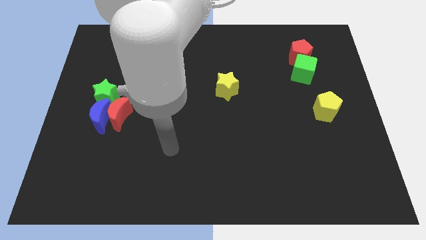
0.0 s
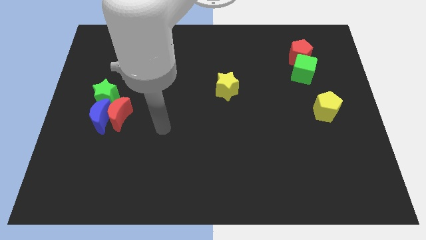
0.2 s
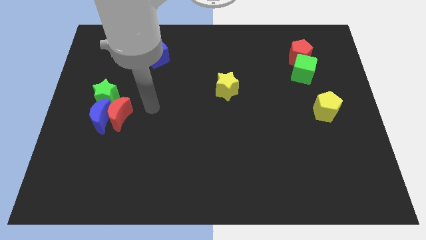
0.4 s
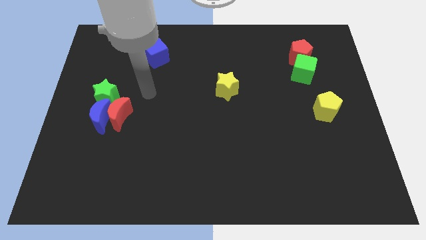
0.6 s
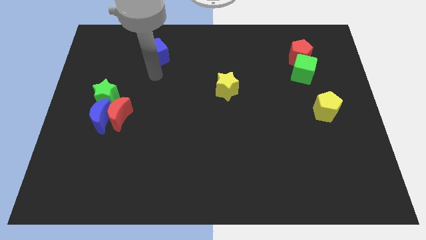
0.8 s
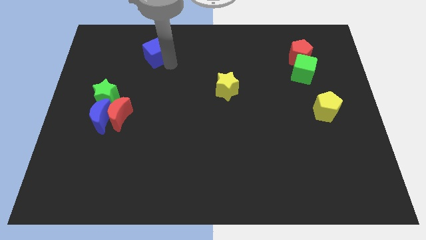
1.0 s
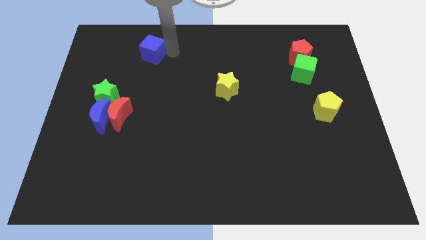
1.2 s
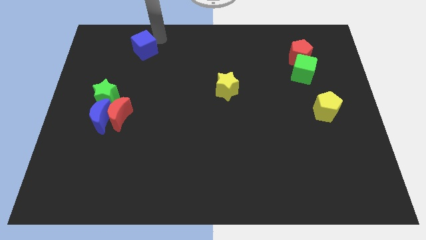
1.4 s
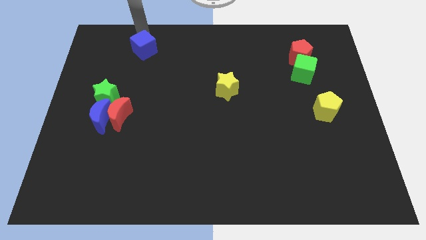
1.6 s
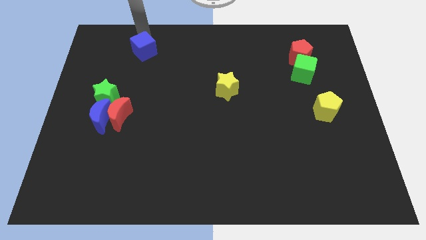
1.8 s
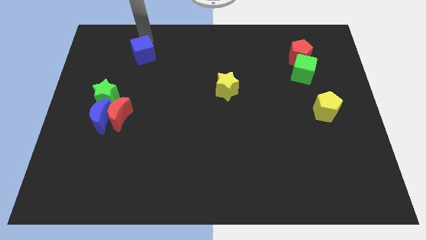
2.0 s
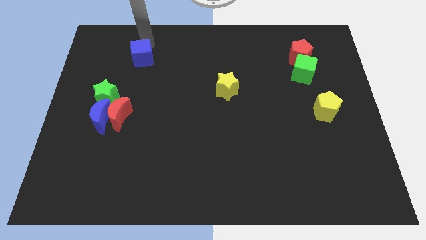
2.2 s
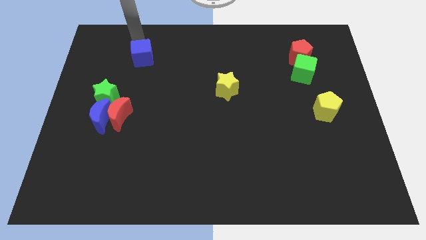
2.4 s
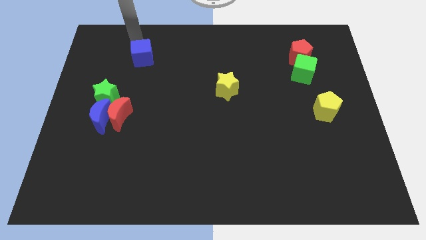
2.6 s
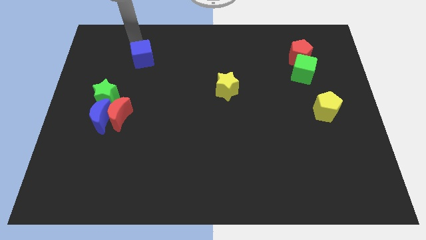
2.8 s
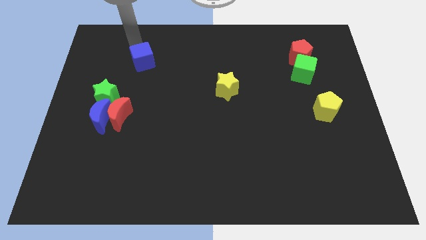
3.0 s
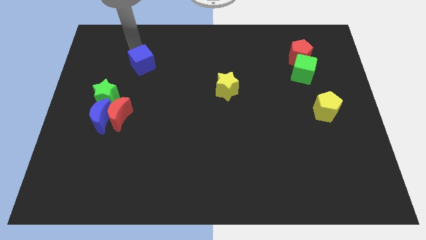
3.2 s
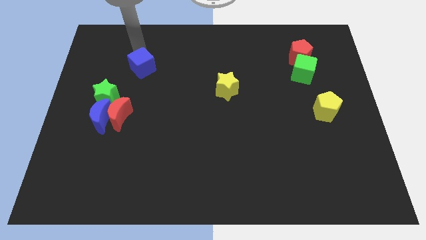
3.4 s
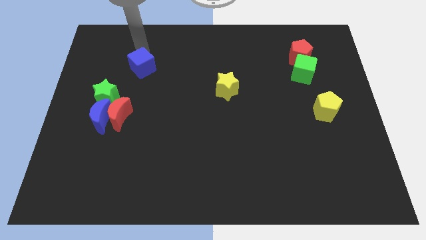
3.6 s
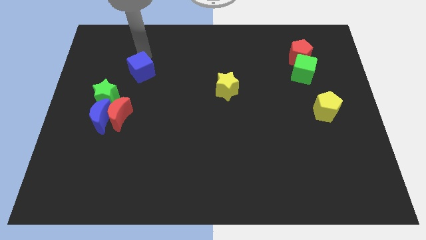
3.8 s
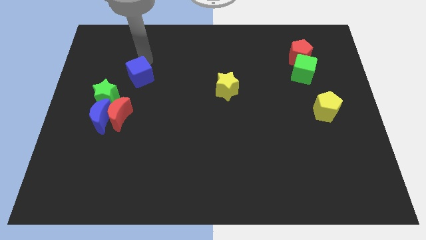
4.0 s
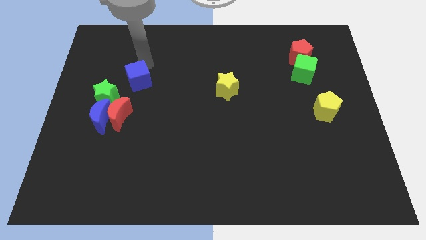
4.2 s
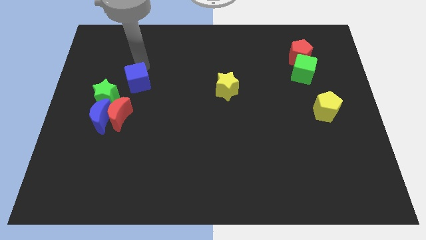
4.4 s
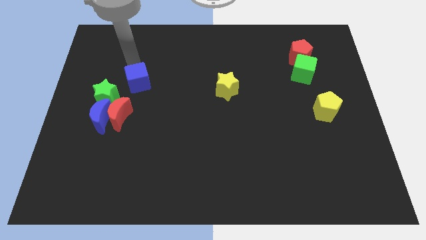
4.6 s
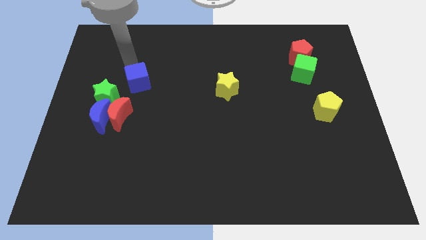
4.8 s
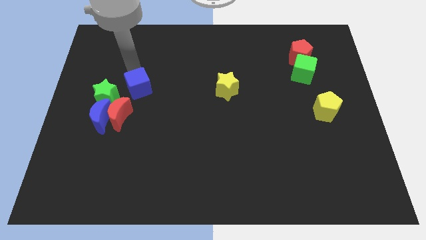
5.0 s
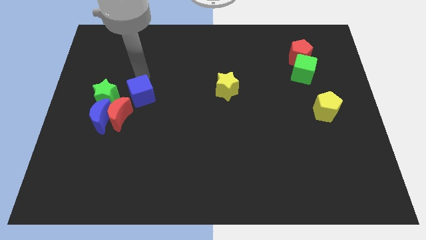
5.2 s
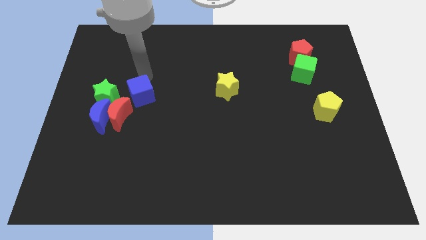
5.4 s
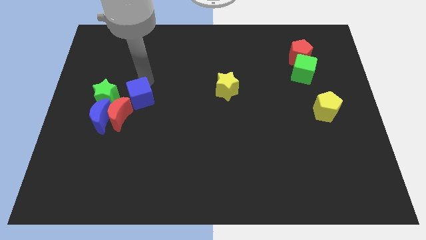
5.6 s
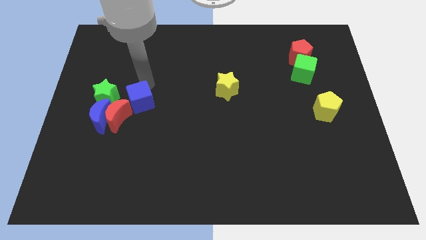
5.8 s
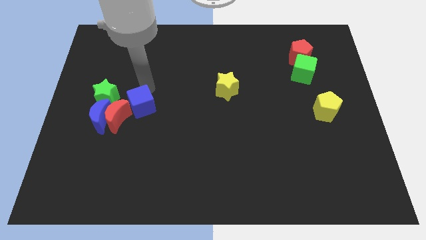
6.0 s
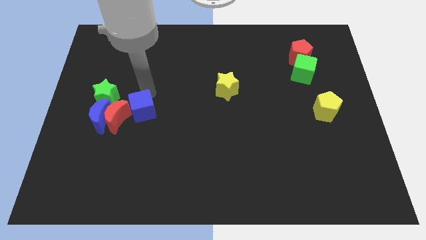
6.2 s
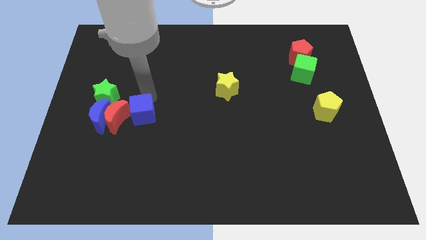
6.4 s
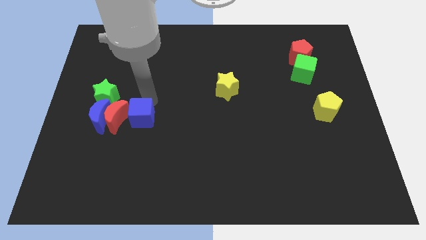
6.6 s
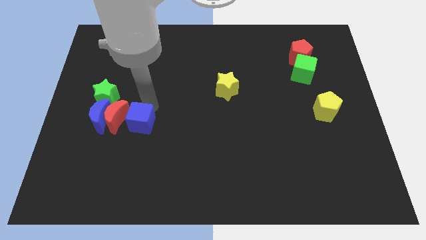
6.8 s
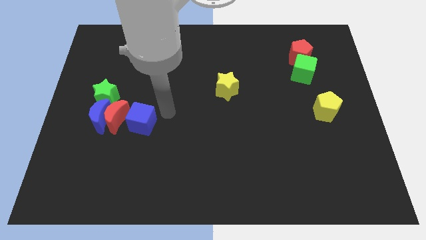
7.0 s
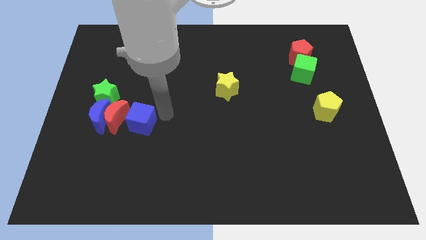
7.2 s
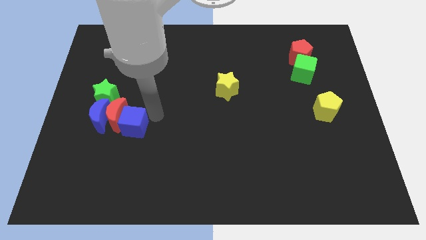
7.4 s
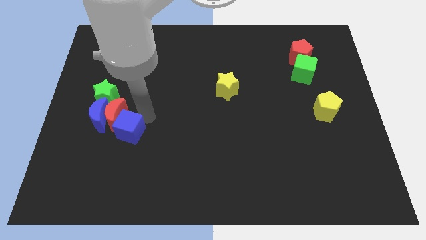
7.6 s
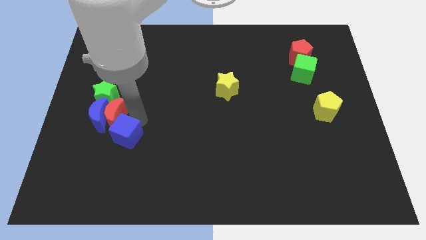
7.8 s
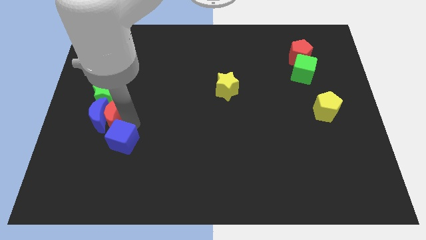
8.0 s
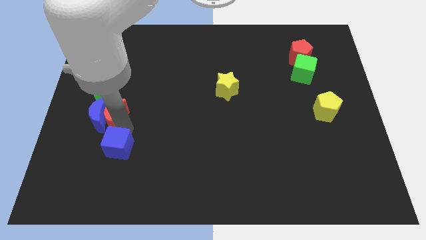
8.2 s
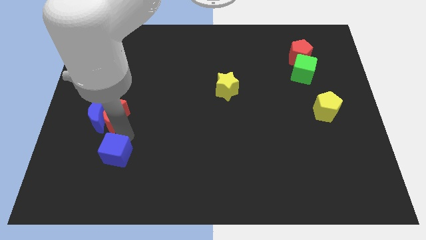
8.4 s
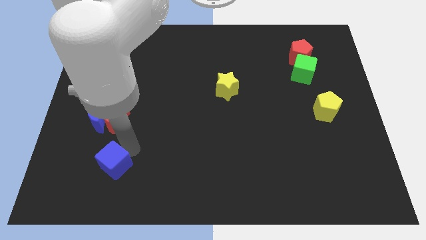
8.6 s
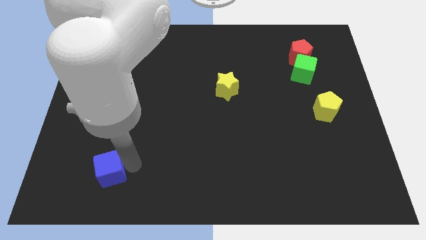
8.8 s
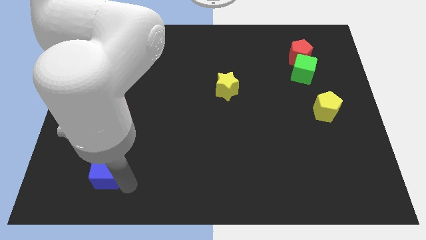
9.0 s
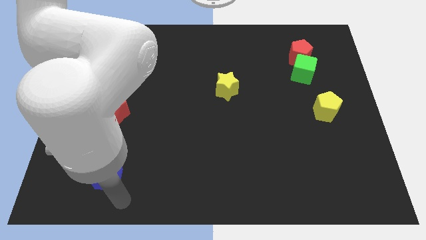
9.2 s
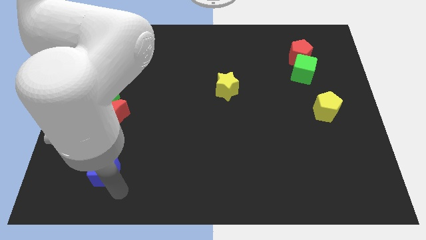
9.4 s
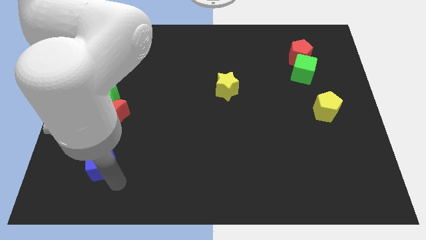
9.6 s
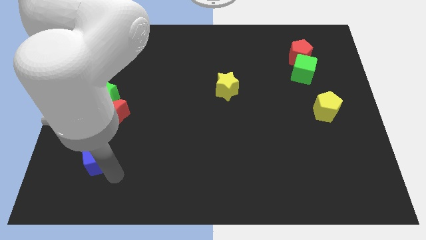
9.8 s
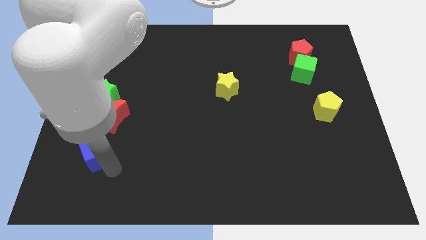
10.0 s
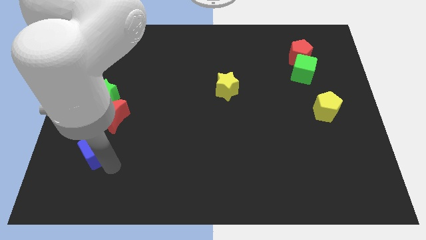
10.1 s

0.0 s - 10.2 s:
slide the blue cube to the bottom left of the red moon

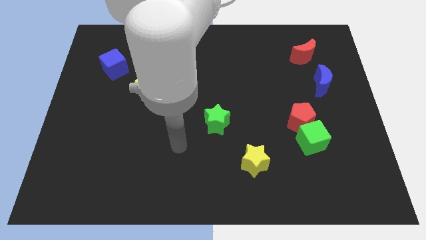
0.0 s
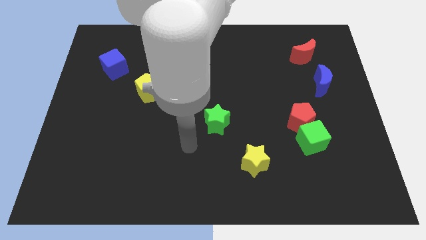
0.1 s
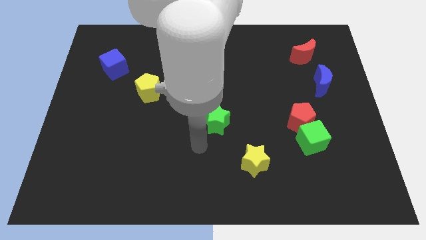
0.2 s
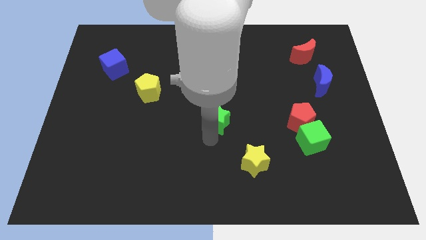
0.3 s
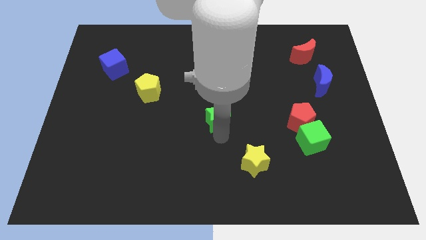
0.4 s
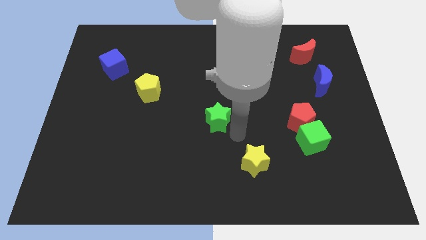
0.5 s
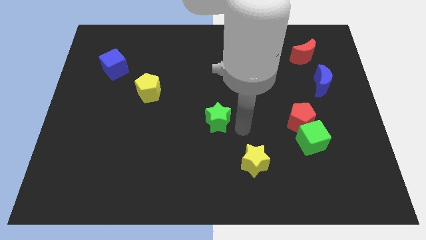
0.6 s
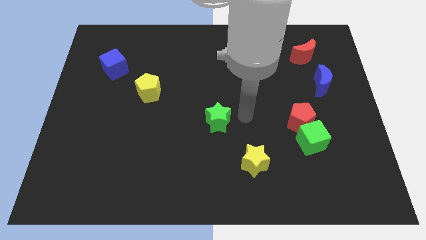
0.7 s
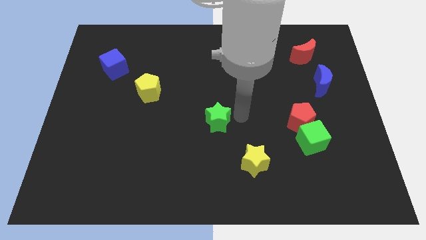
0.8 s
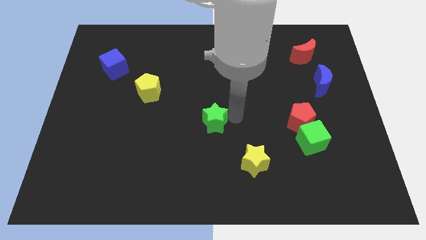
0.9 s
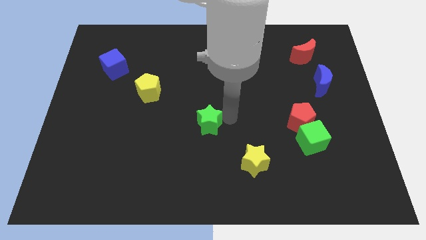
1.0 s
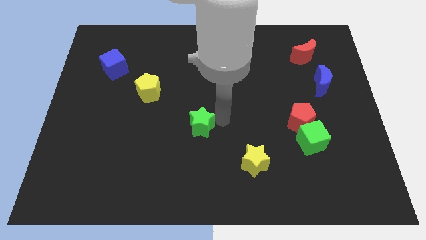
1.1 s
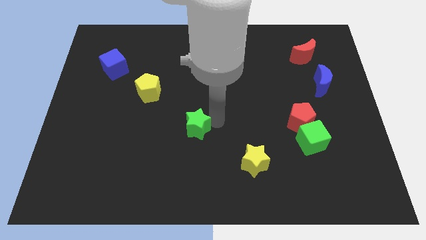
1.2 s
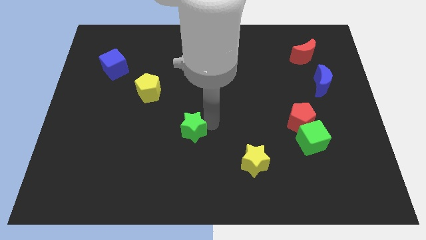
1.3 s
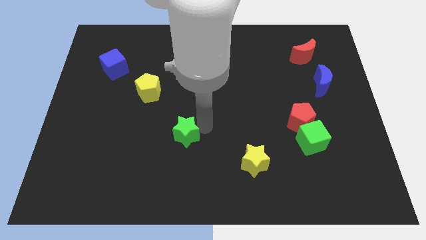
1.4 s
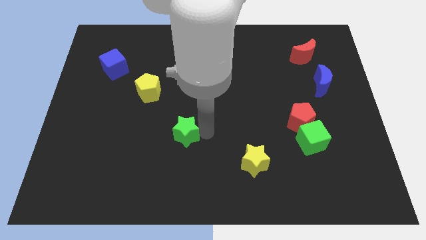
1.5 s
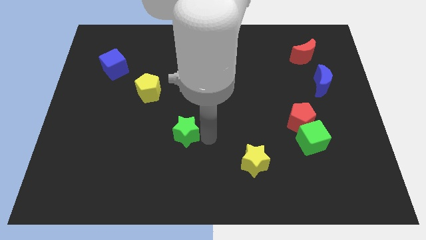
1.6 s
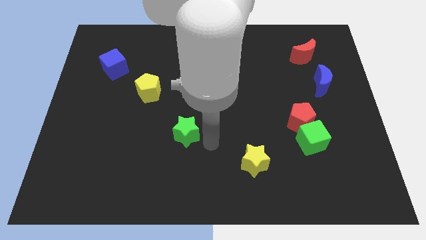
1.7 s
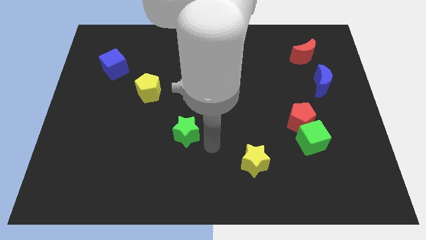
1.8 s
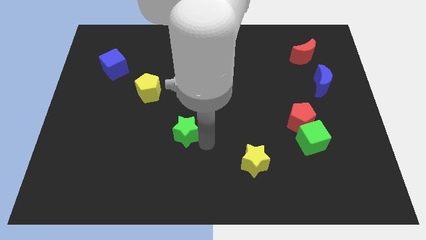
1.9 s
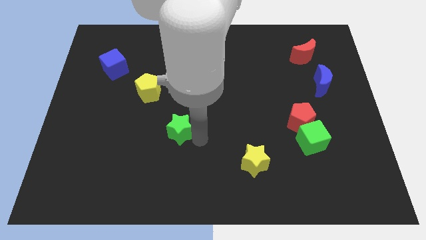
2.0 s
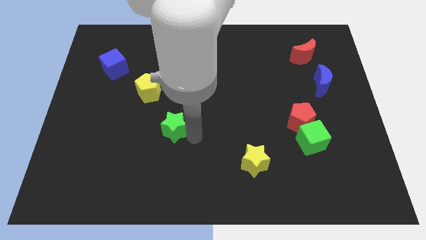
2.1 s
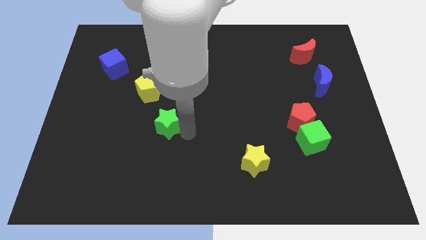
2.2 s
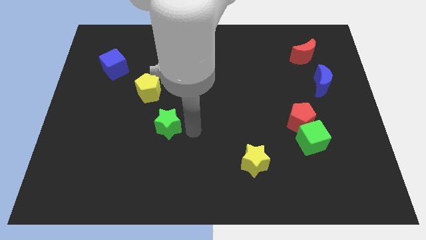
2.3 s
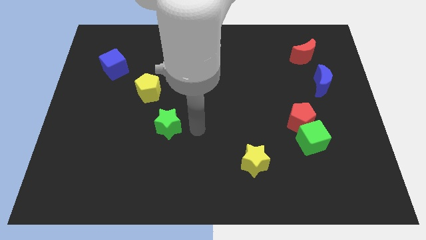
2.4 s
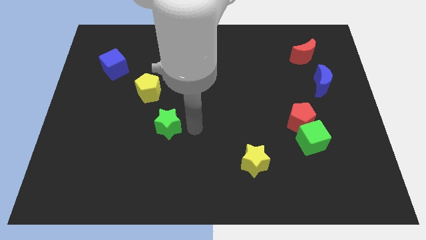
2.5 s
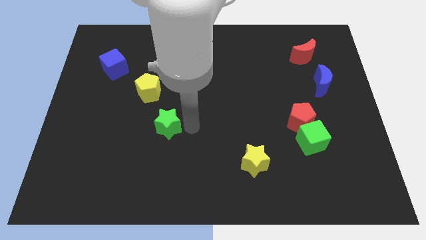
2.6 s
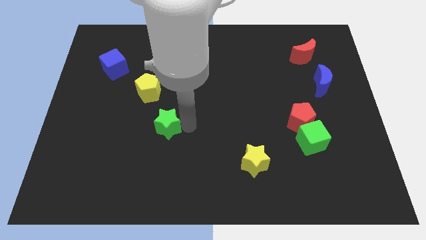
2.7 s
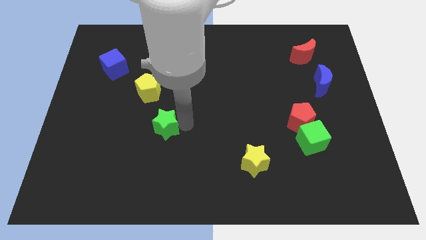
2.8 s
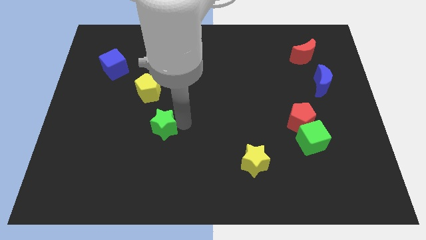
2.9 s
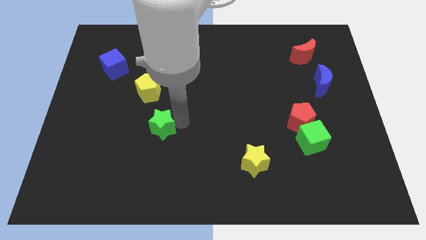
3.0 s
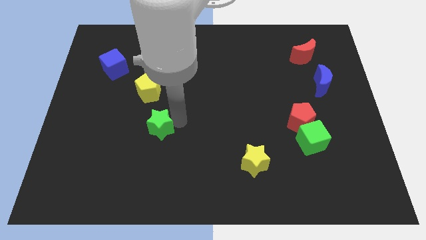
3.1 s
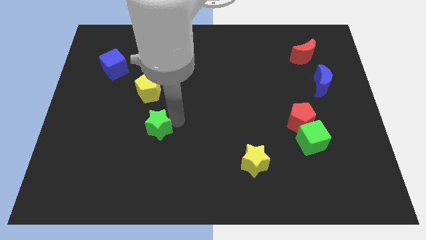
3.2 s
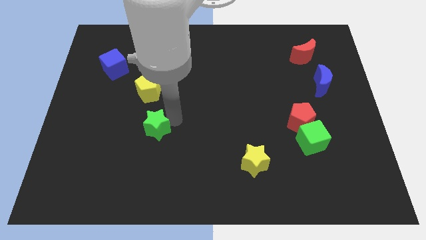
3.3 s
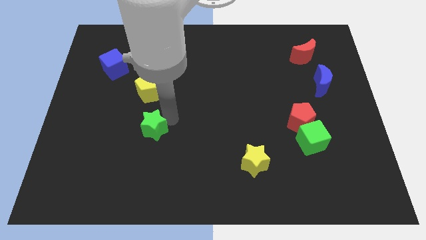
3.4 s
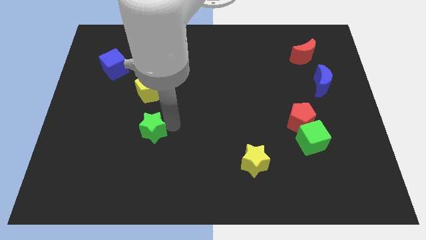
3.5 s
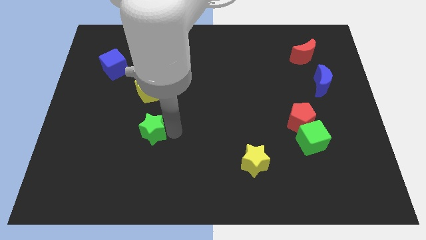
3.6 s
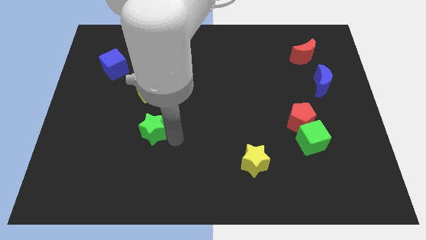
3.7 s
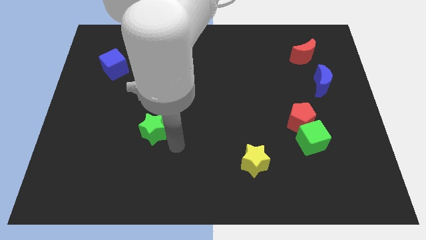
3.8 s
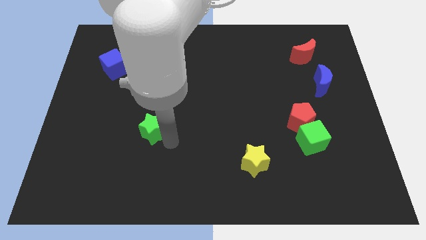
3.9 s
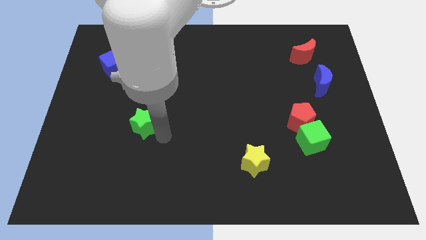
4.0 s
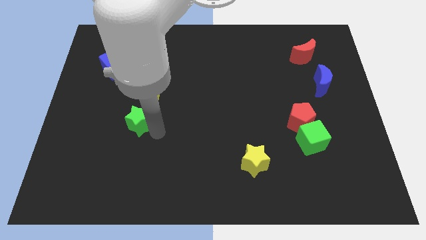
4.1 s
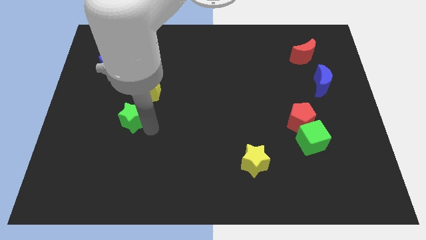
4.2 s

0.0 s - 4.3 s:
push the green star diagonally down and to the left of the yellow pentagon
